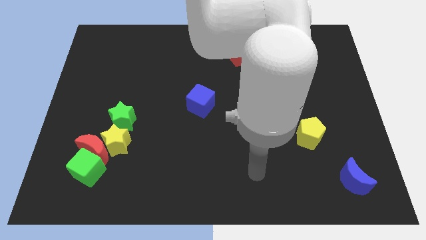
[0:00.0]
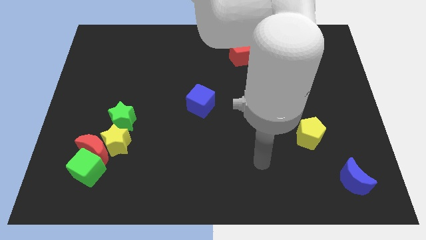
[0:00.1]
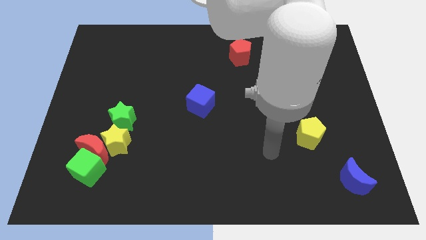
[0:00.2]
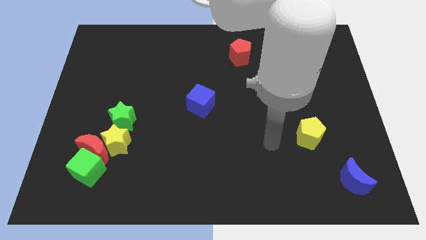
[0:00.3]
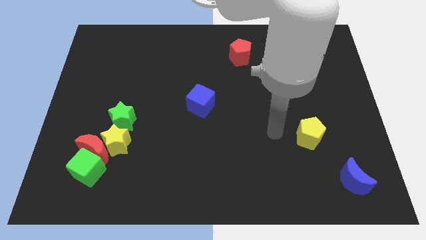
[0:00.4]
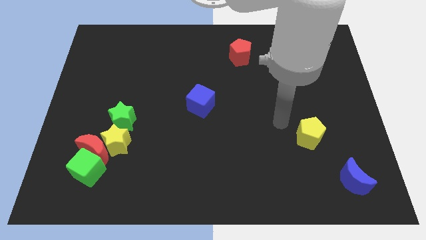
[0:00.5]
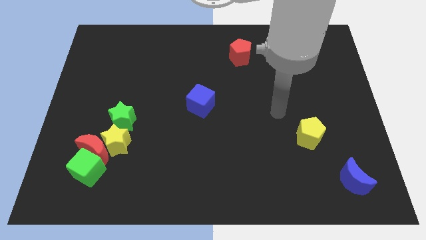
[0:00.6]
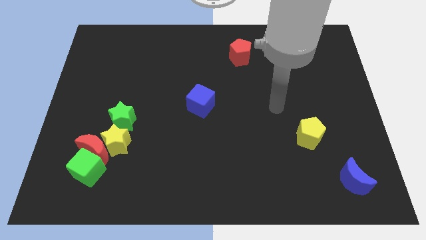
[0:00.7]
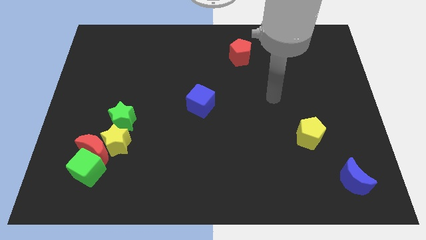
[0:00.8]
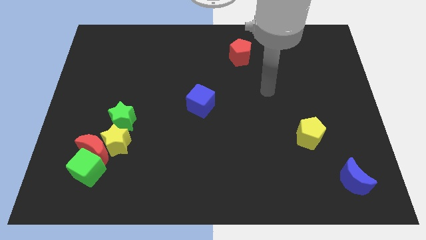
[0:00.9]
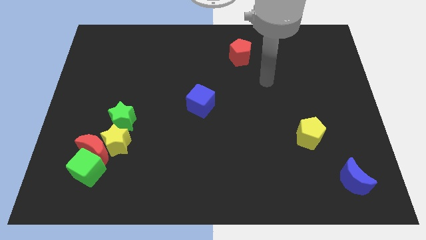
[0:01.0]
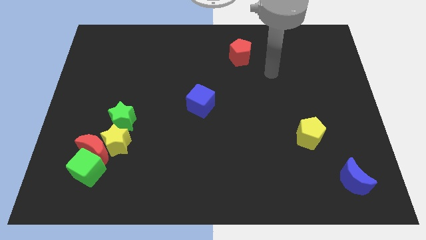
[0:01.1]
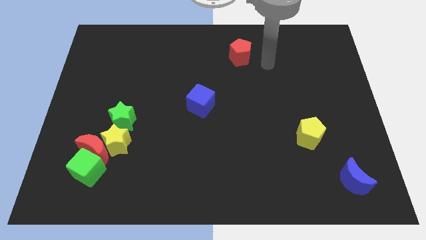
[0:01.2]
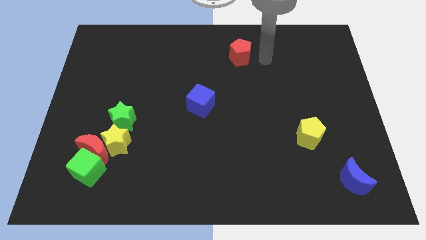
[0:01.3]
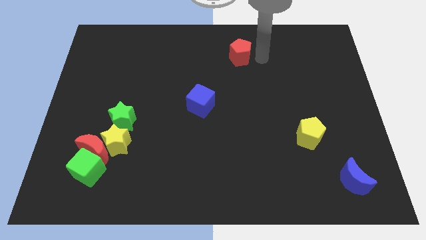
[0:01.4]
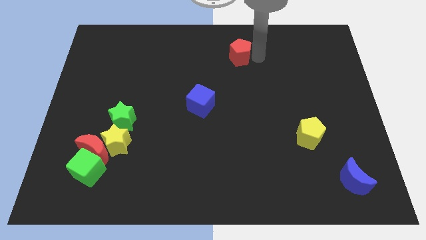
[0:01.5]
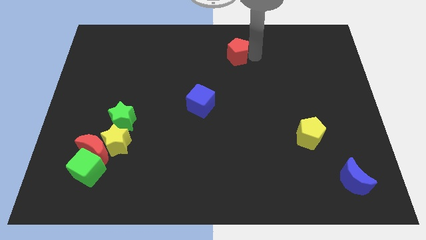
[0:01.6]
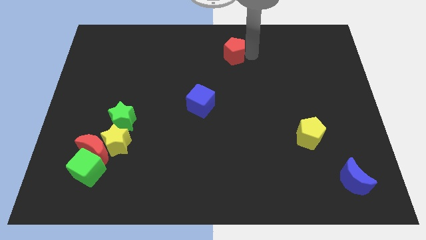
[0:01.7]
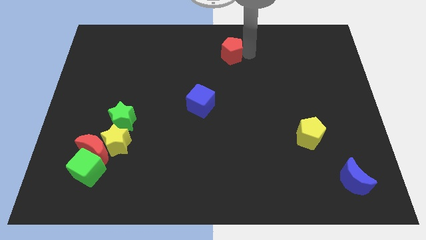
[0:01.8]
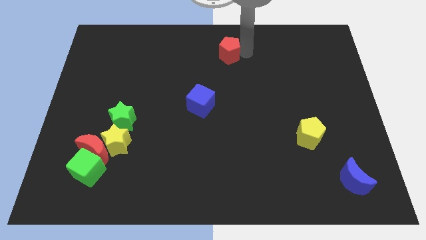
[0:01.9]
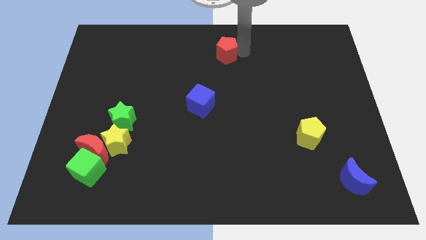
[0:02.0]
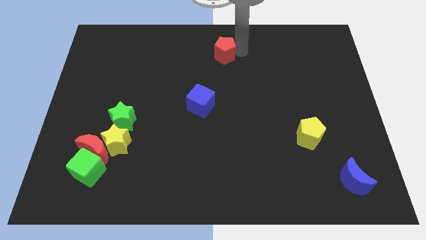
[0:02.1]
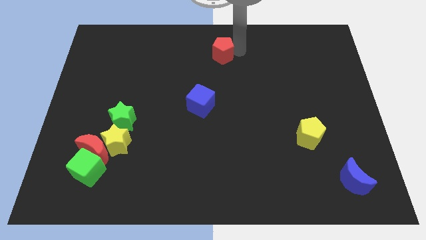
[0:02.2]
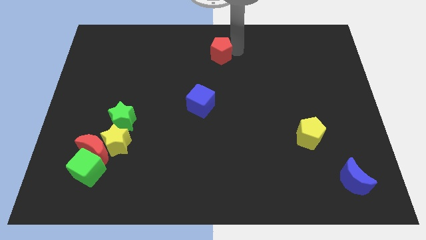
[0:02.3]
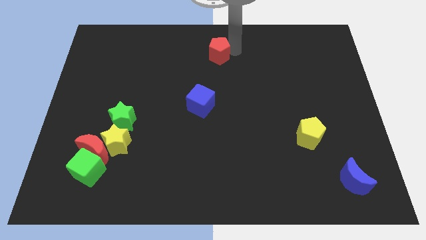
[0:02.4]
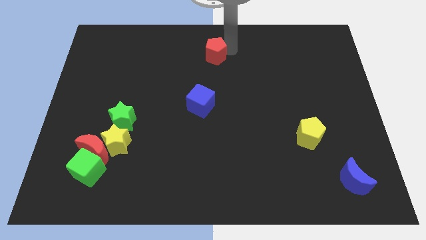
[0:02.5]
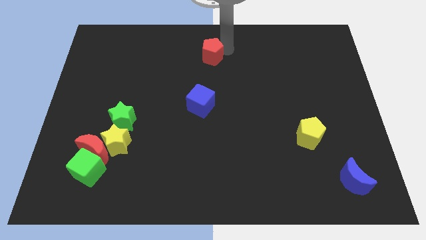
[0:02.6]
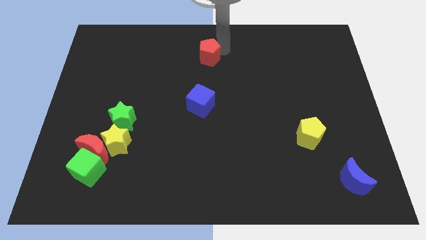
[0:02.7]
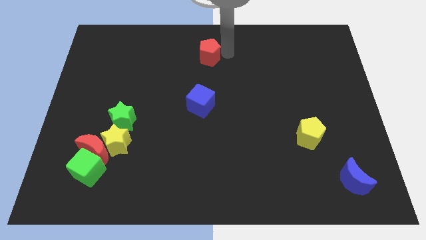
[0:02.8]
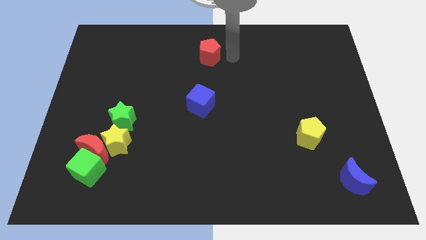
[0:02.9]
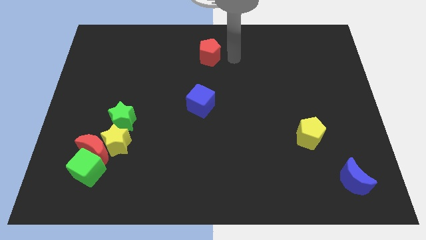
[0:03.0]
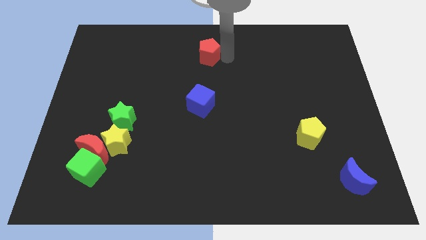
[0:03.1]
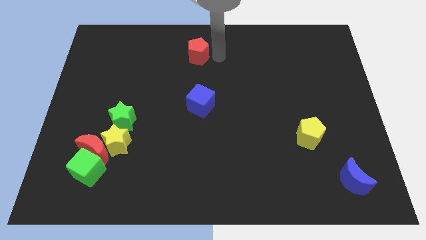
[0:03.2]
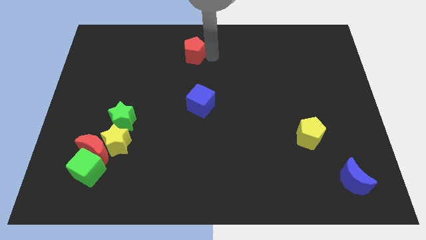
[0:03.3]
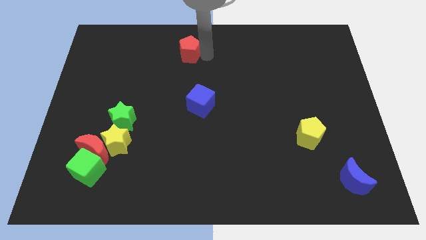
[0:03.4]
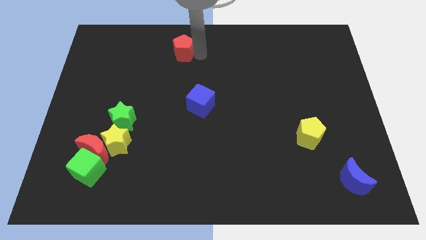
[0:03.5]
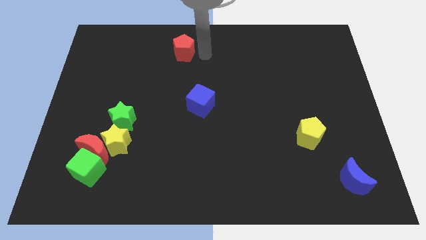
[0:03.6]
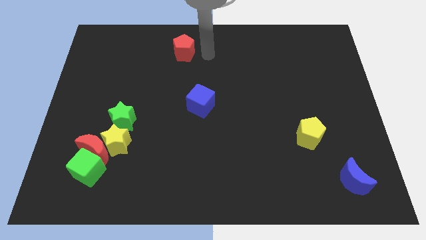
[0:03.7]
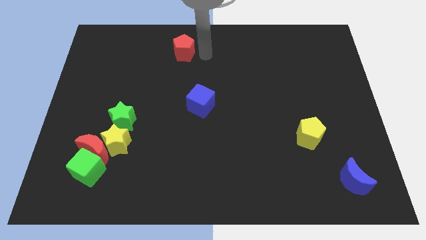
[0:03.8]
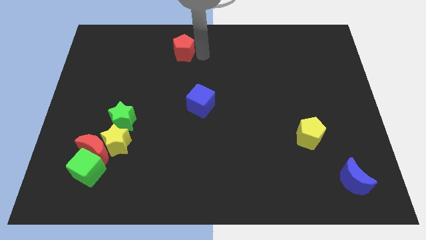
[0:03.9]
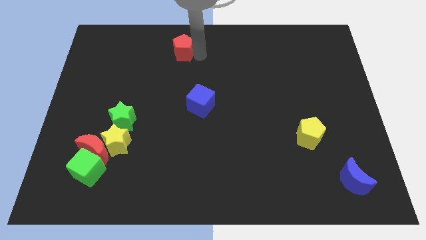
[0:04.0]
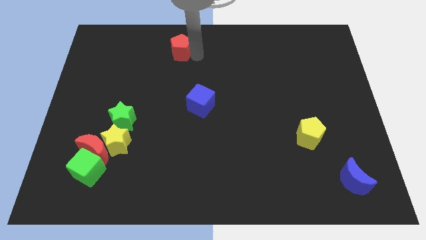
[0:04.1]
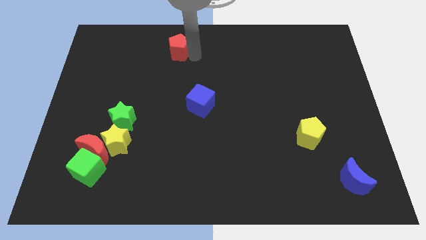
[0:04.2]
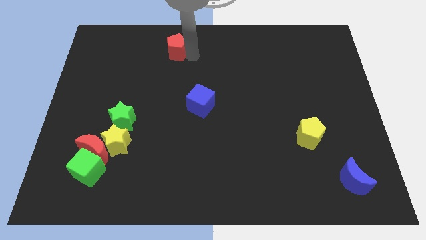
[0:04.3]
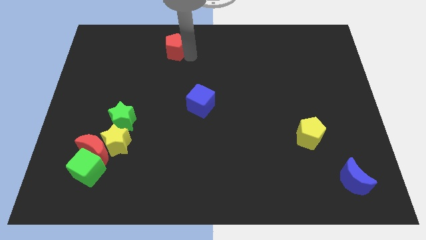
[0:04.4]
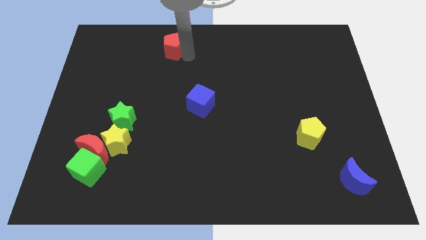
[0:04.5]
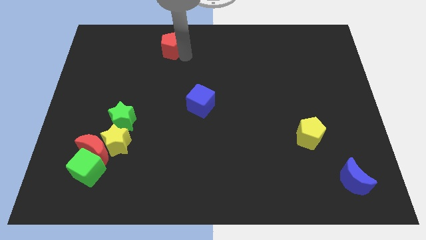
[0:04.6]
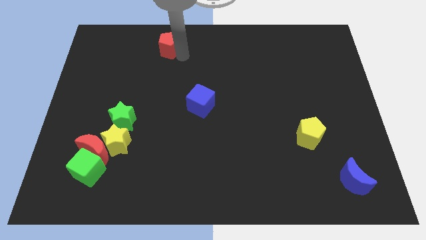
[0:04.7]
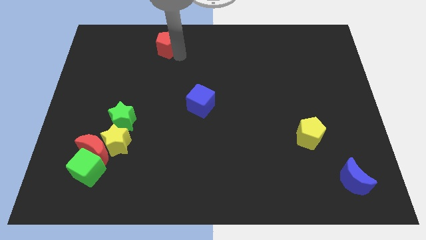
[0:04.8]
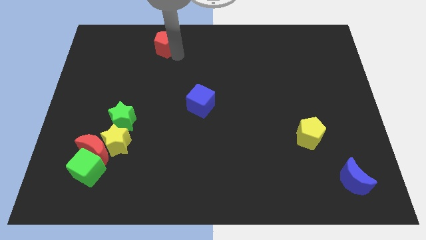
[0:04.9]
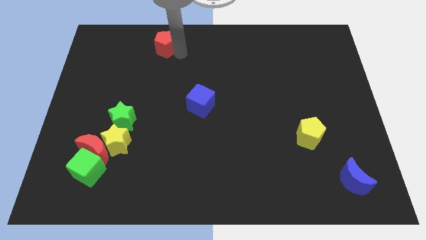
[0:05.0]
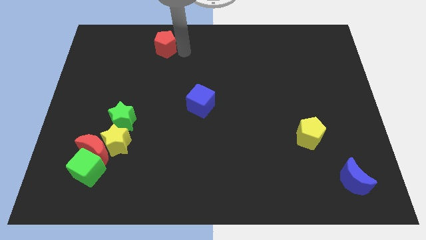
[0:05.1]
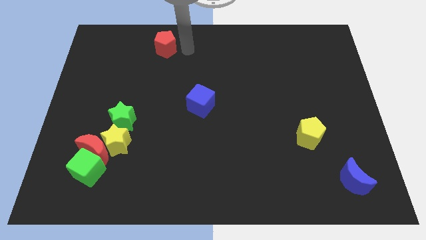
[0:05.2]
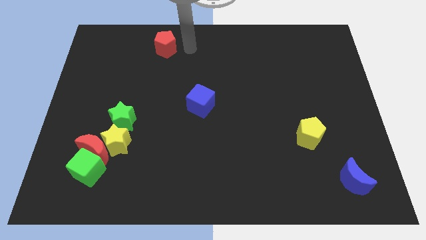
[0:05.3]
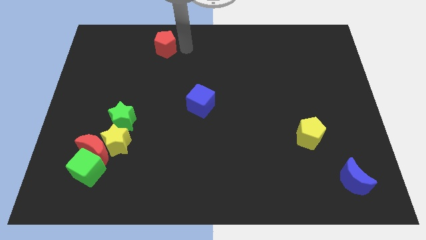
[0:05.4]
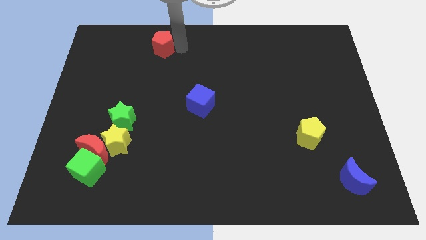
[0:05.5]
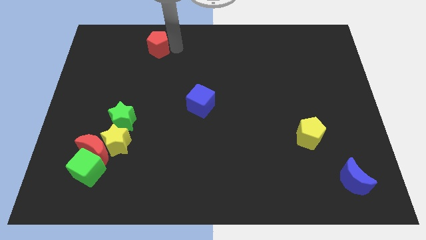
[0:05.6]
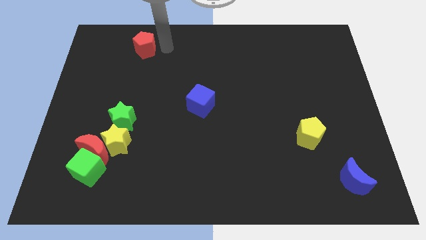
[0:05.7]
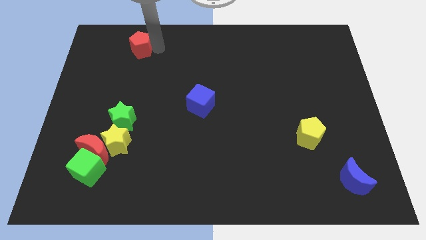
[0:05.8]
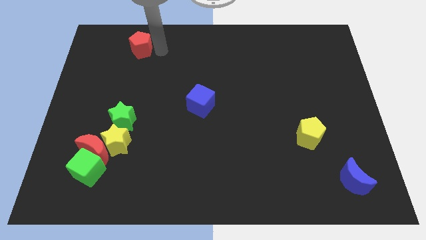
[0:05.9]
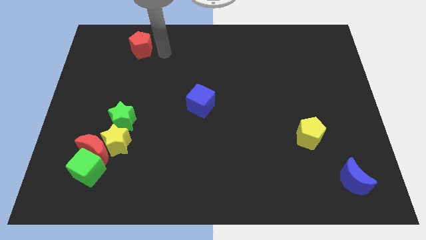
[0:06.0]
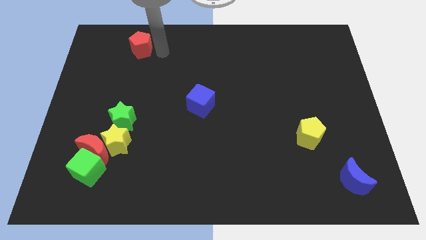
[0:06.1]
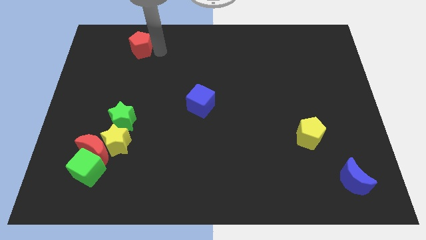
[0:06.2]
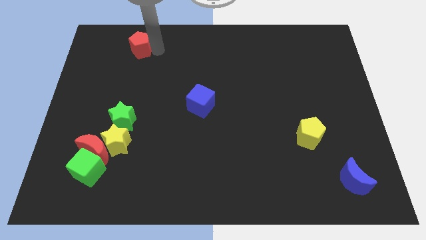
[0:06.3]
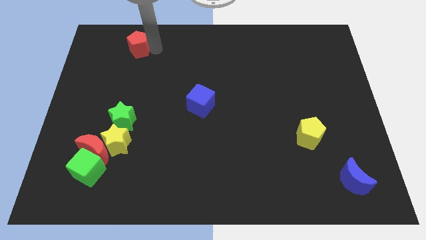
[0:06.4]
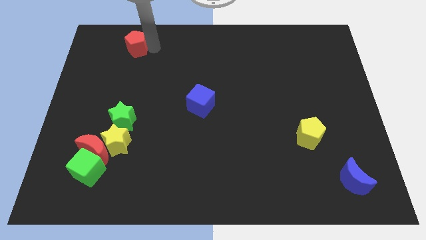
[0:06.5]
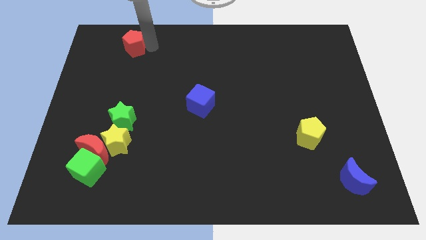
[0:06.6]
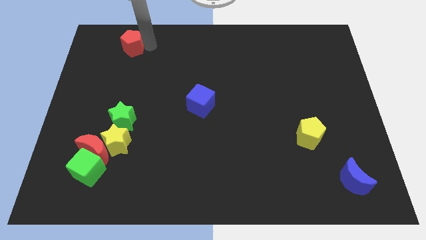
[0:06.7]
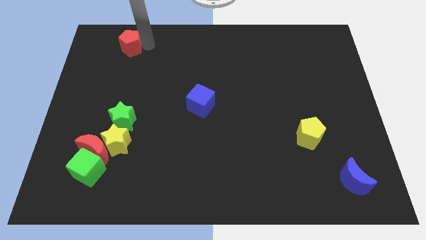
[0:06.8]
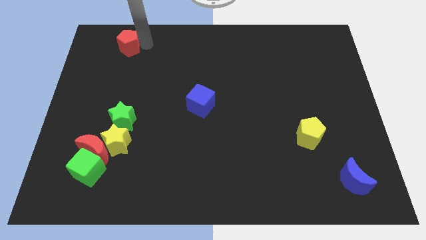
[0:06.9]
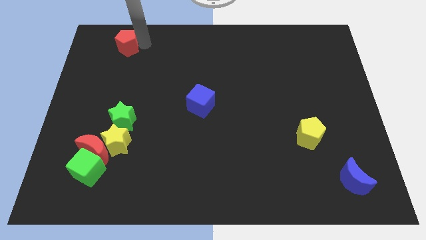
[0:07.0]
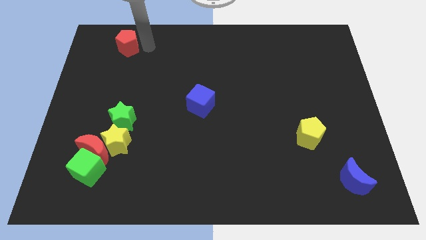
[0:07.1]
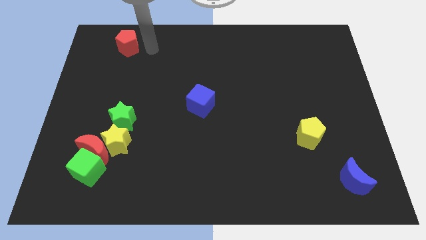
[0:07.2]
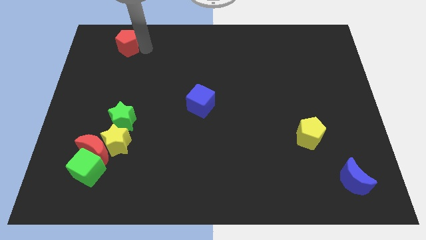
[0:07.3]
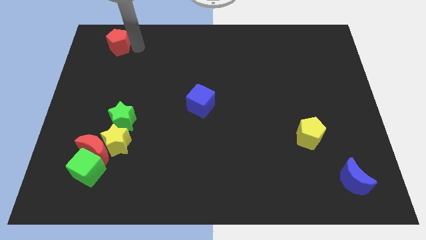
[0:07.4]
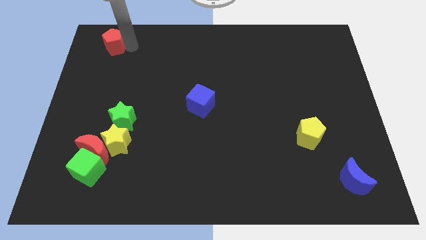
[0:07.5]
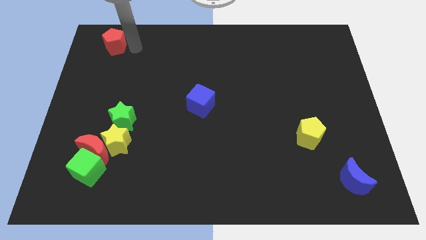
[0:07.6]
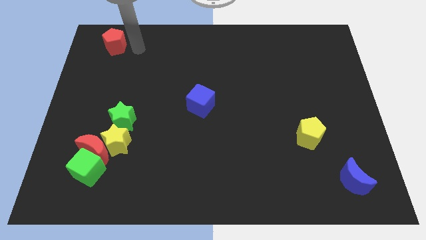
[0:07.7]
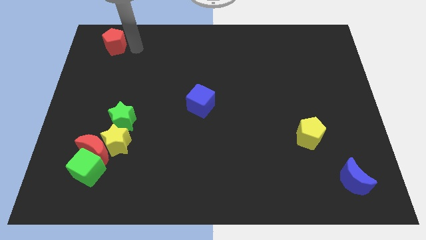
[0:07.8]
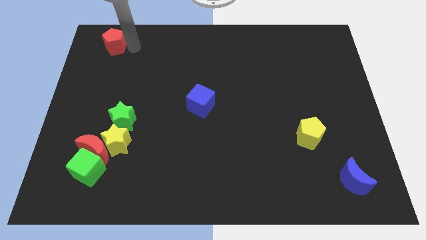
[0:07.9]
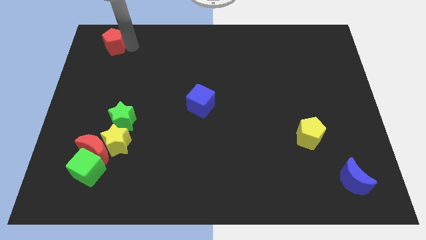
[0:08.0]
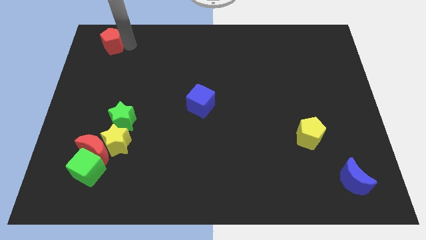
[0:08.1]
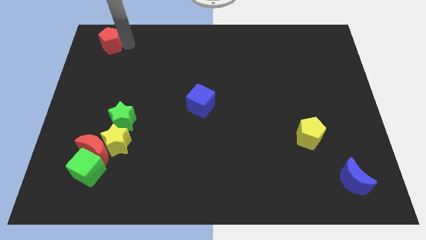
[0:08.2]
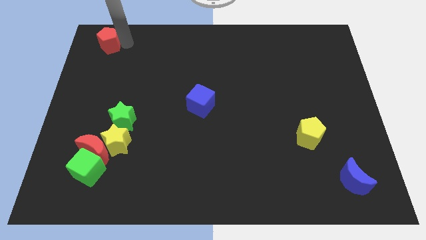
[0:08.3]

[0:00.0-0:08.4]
push the red pentagon to the top left
